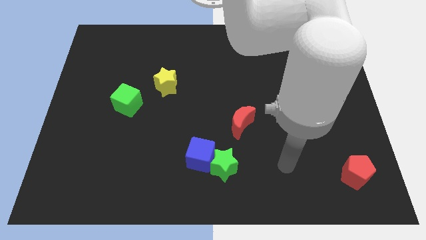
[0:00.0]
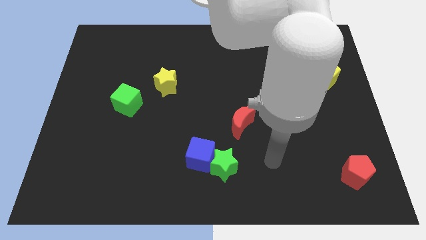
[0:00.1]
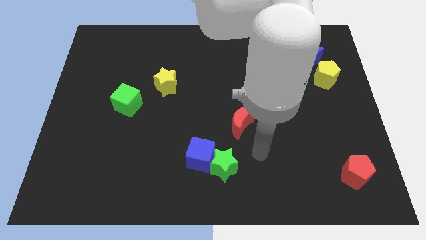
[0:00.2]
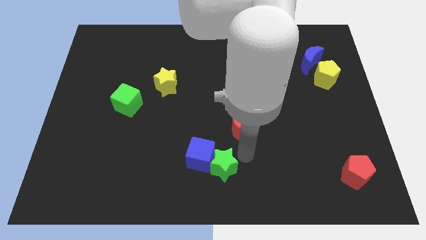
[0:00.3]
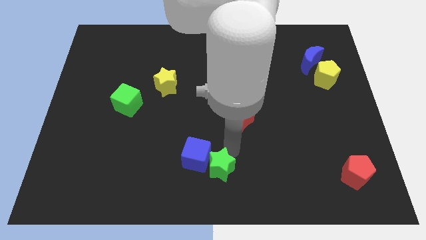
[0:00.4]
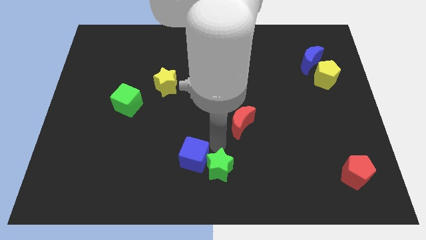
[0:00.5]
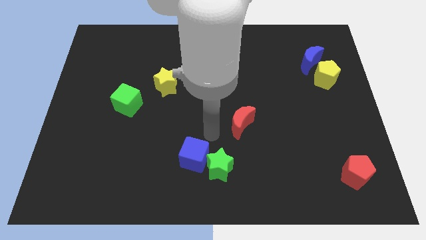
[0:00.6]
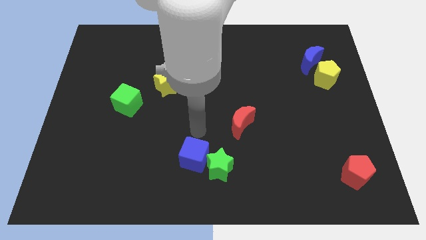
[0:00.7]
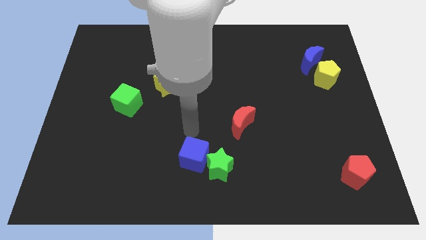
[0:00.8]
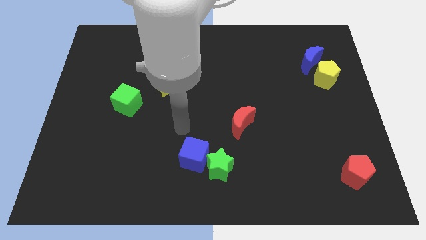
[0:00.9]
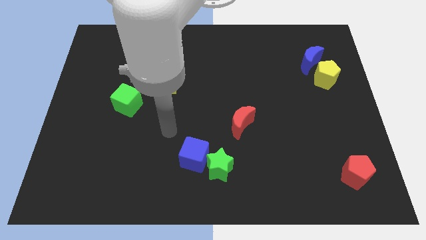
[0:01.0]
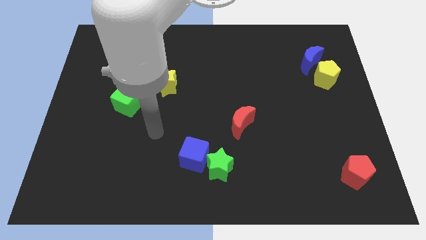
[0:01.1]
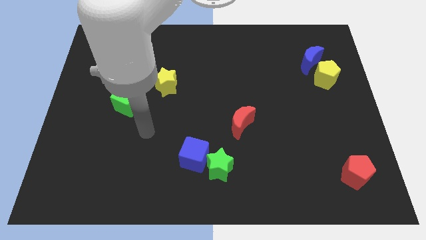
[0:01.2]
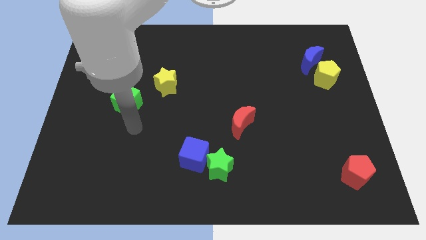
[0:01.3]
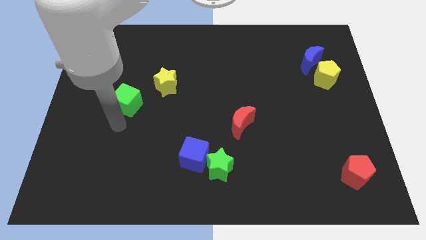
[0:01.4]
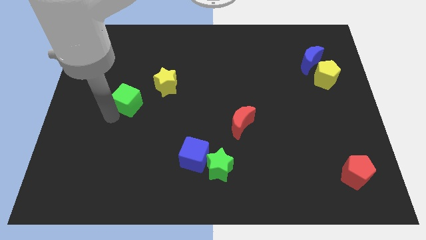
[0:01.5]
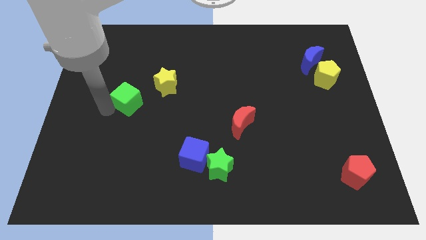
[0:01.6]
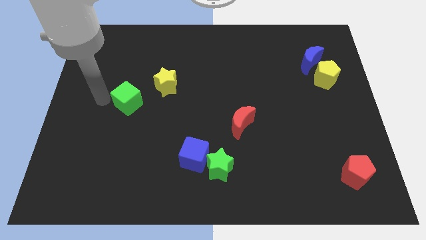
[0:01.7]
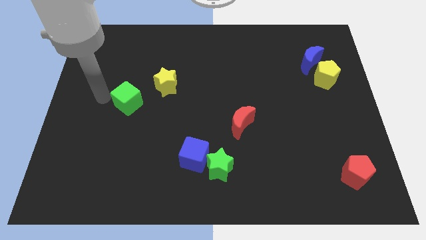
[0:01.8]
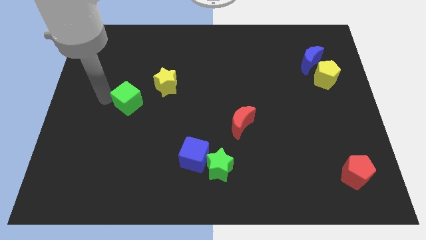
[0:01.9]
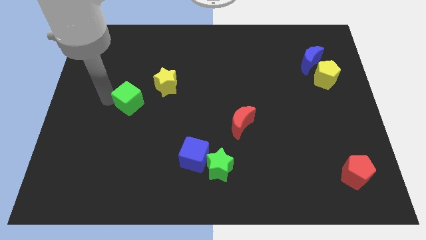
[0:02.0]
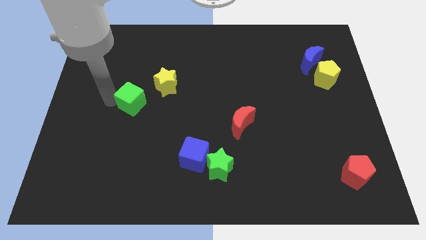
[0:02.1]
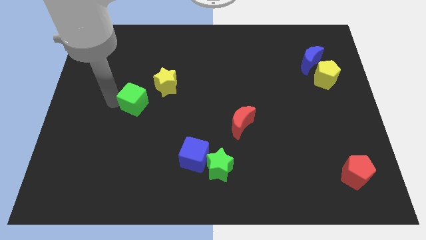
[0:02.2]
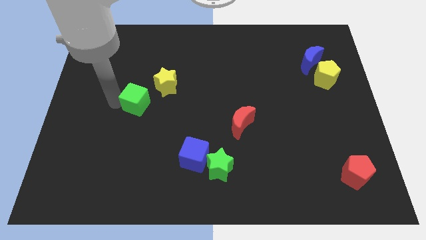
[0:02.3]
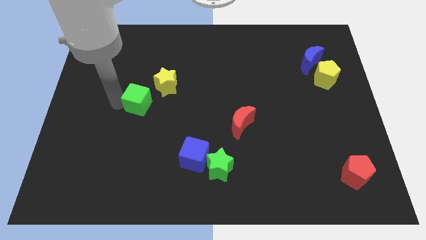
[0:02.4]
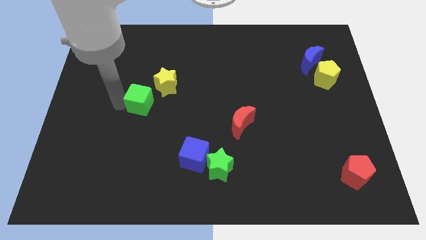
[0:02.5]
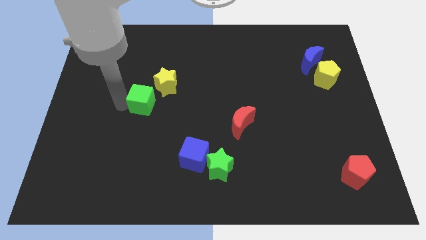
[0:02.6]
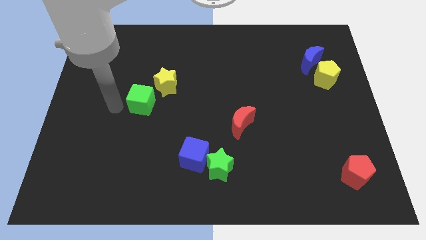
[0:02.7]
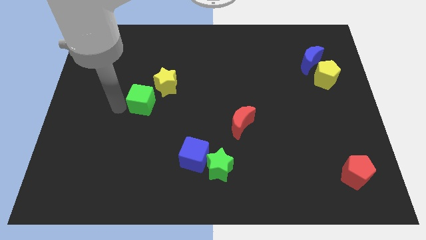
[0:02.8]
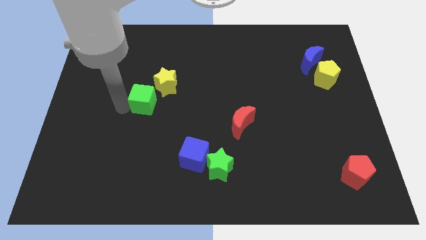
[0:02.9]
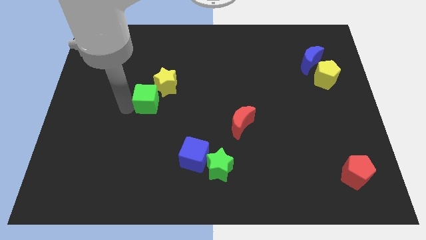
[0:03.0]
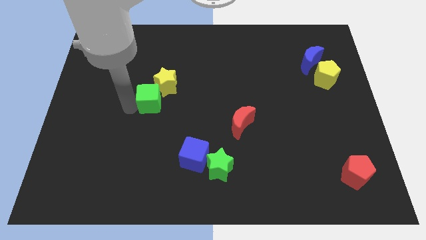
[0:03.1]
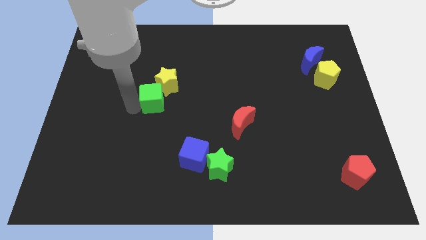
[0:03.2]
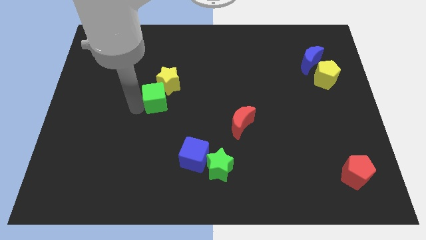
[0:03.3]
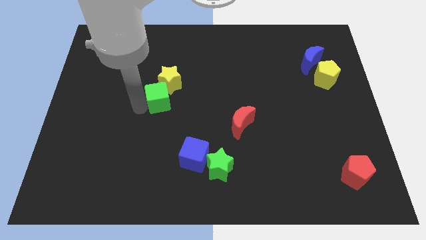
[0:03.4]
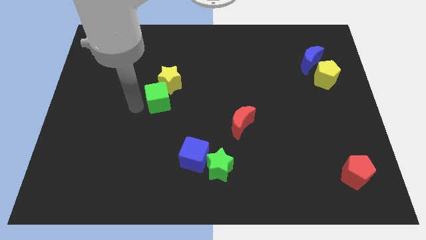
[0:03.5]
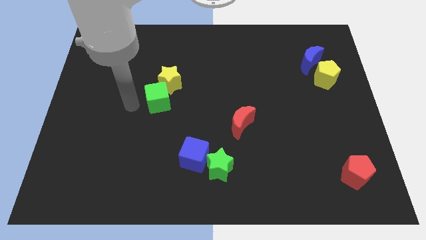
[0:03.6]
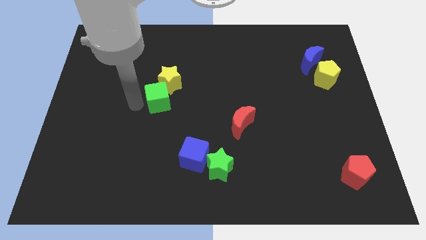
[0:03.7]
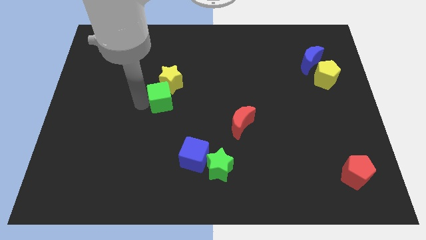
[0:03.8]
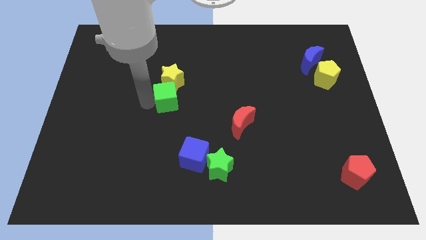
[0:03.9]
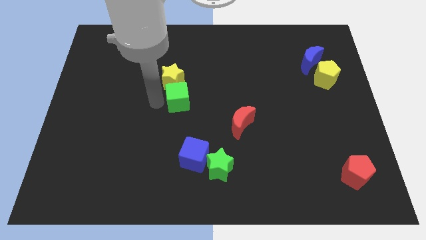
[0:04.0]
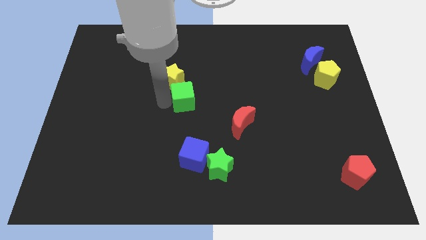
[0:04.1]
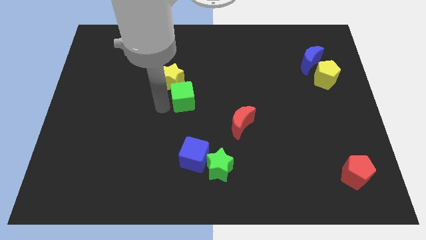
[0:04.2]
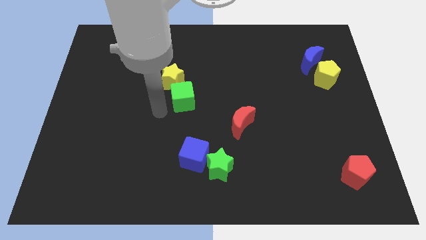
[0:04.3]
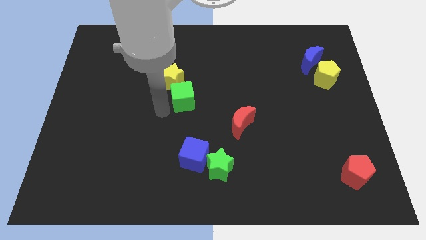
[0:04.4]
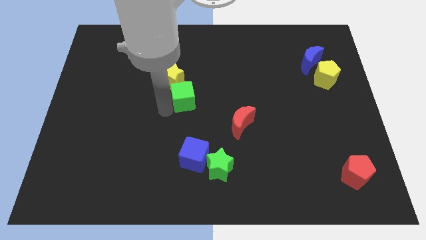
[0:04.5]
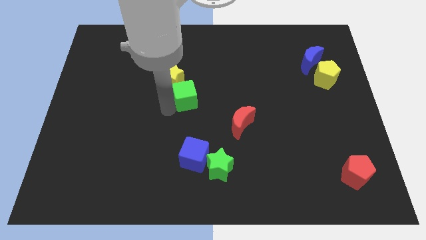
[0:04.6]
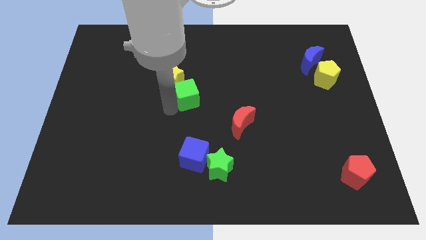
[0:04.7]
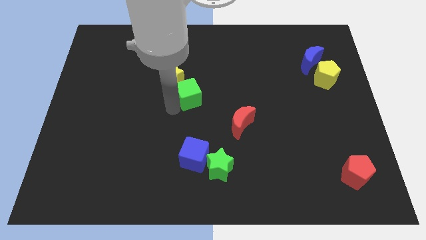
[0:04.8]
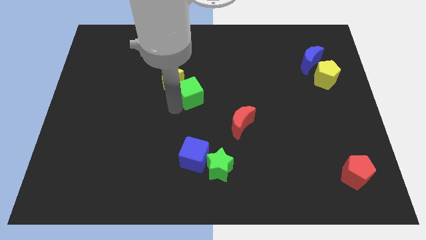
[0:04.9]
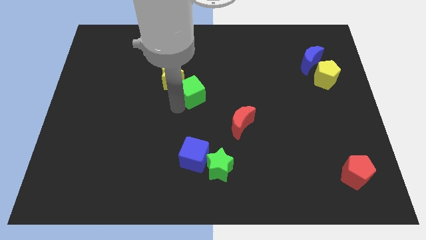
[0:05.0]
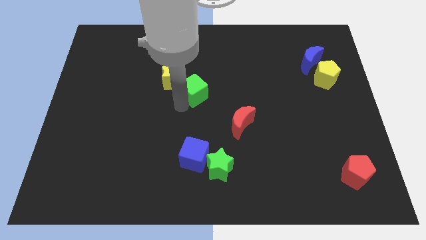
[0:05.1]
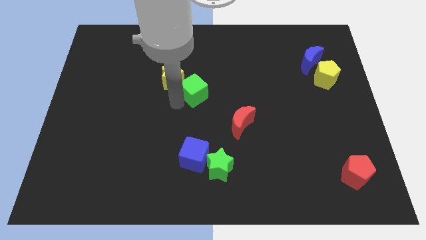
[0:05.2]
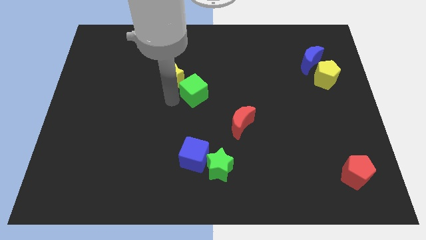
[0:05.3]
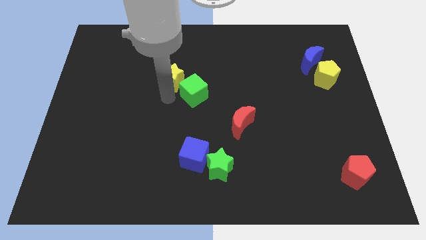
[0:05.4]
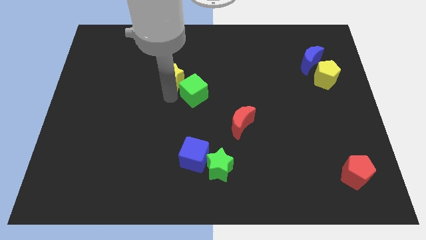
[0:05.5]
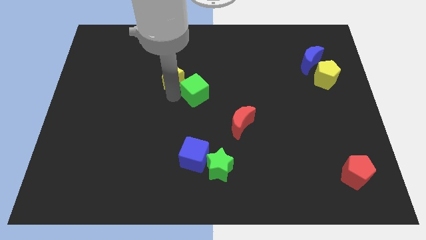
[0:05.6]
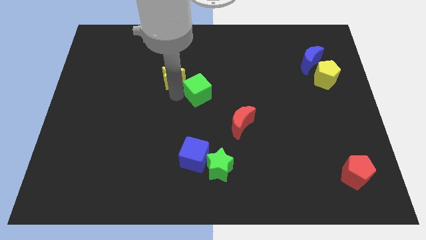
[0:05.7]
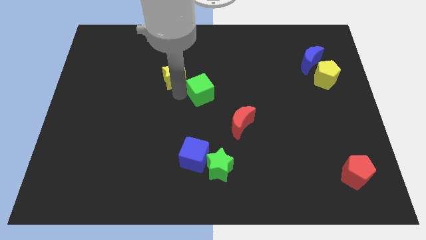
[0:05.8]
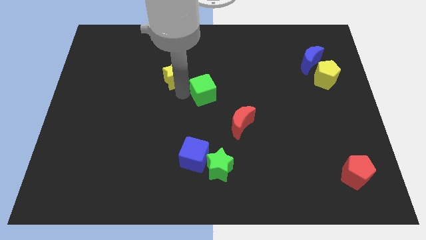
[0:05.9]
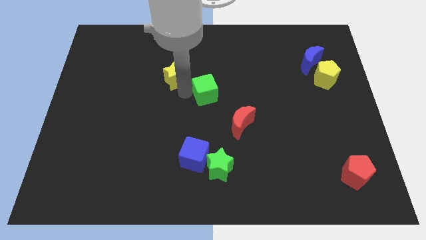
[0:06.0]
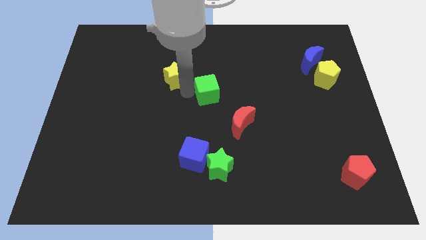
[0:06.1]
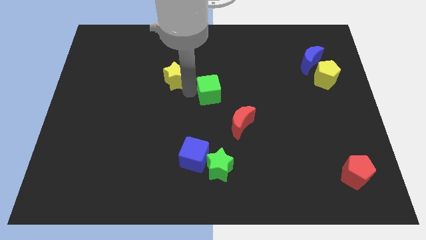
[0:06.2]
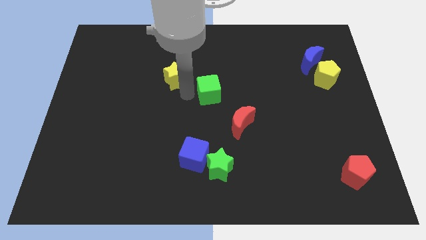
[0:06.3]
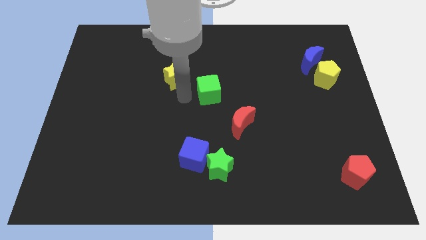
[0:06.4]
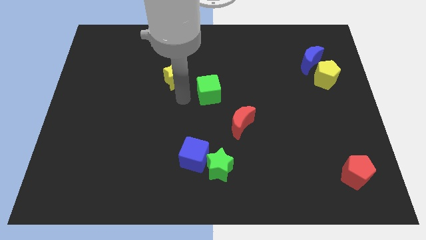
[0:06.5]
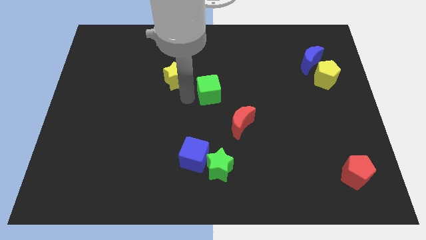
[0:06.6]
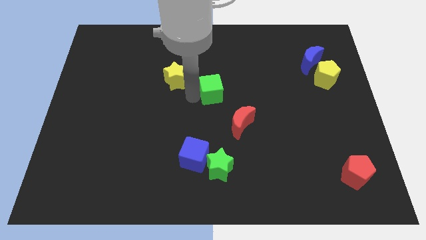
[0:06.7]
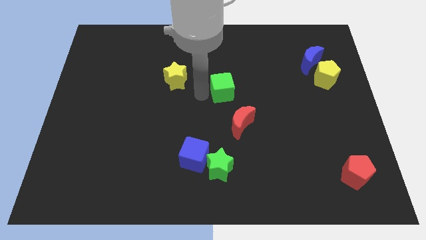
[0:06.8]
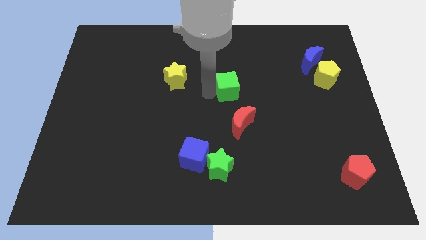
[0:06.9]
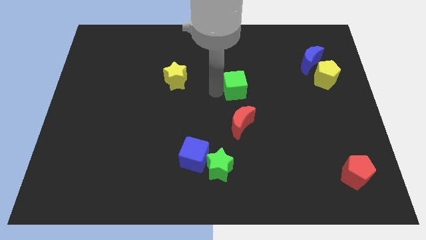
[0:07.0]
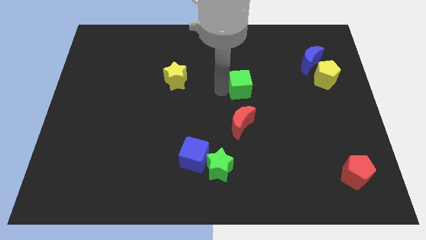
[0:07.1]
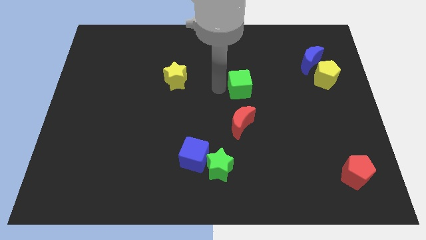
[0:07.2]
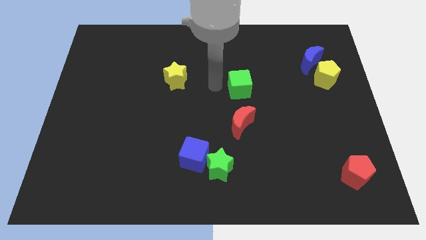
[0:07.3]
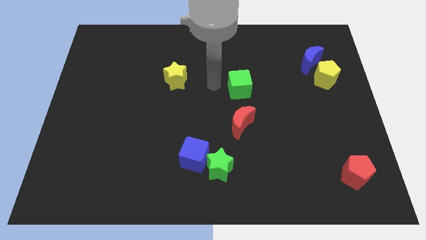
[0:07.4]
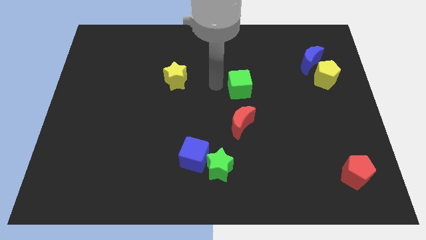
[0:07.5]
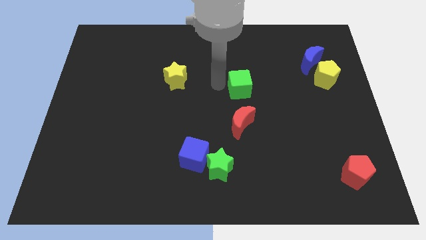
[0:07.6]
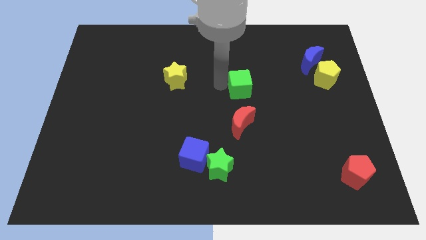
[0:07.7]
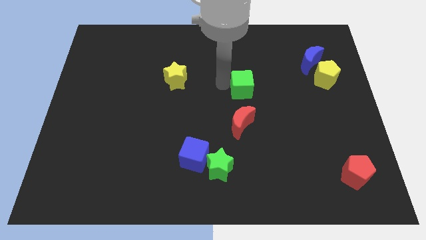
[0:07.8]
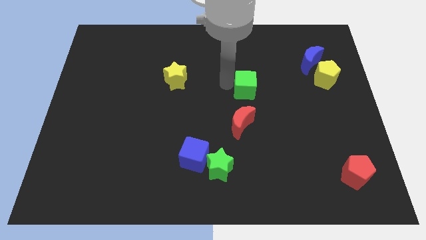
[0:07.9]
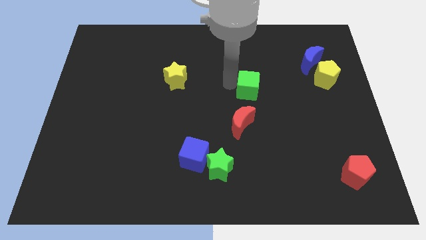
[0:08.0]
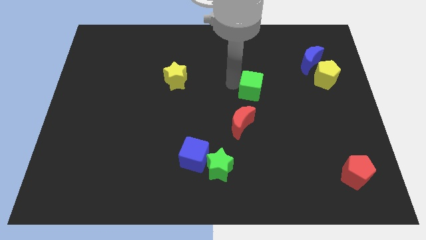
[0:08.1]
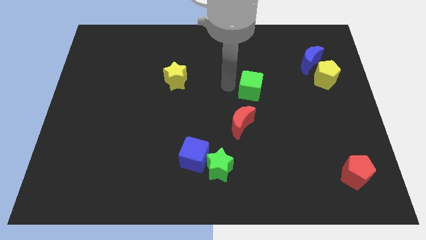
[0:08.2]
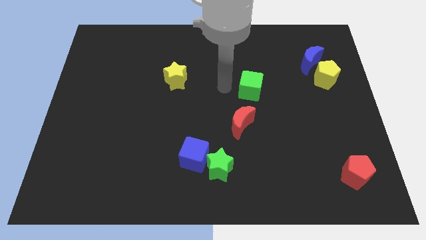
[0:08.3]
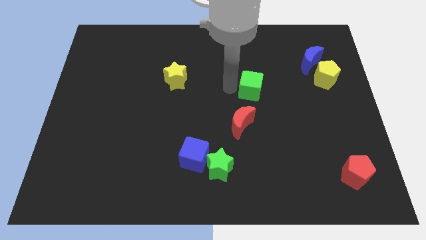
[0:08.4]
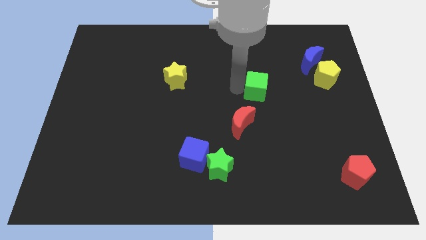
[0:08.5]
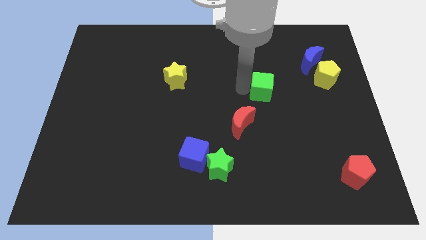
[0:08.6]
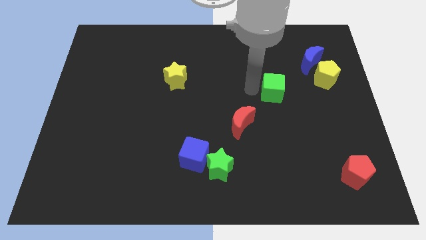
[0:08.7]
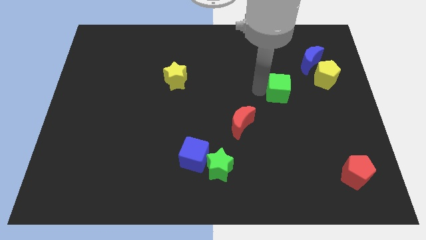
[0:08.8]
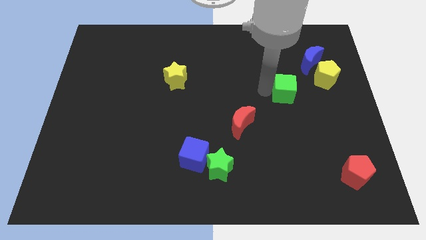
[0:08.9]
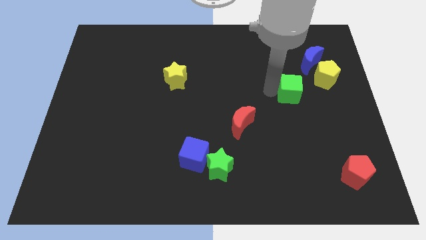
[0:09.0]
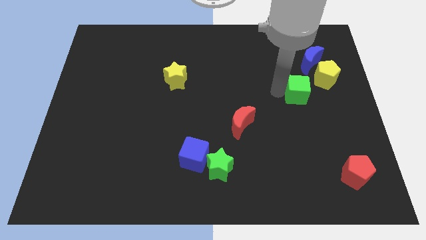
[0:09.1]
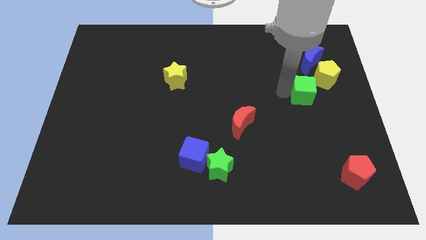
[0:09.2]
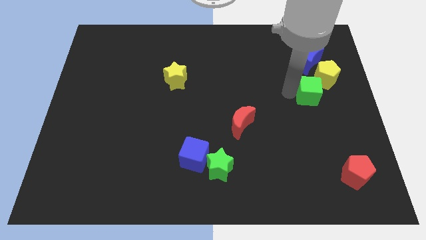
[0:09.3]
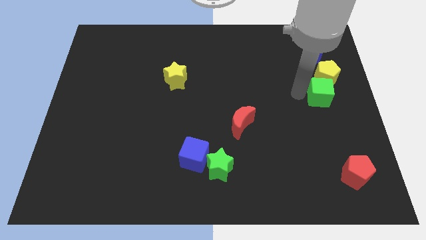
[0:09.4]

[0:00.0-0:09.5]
move the green cube to the center right
